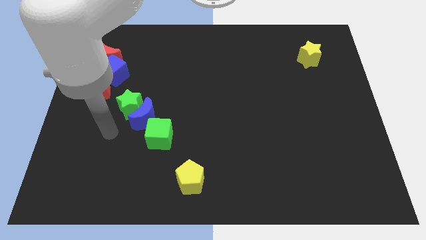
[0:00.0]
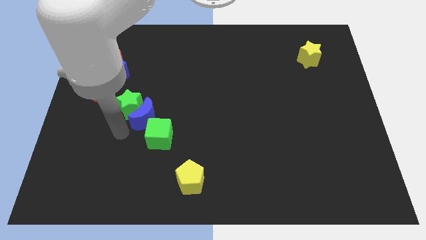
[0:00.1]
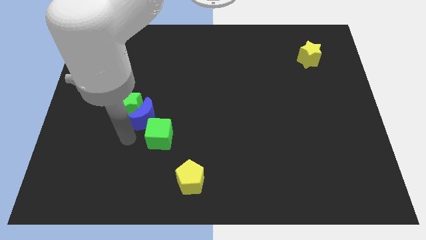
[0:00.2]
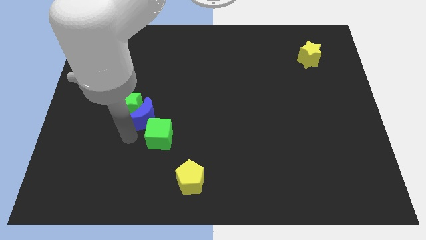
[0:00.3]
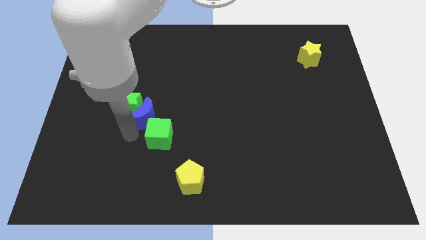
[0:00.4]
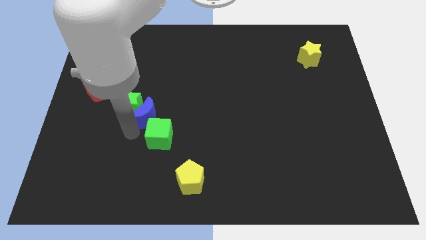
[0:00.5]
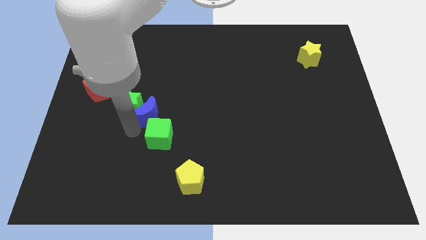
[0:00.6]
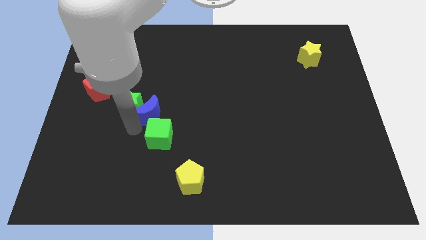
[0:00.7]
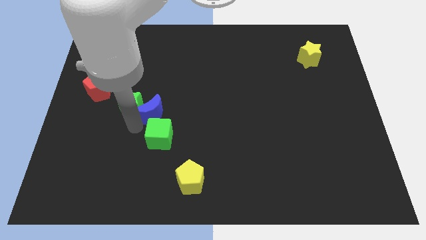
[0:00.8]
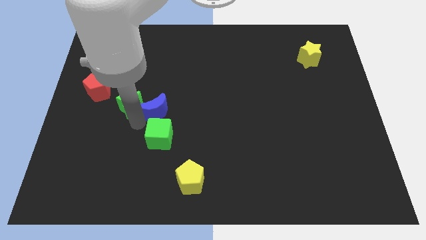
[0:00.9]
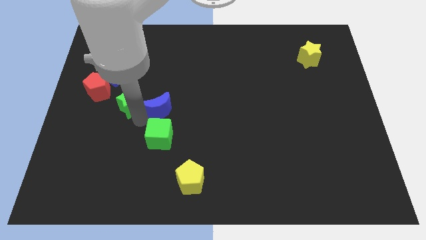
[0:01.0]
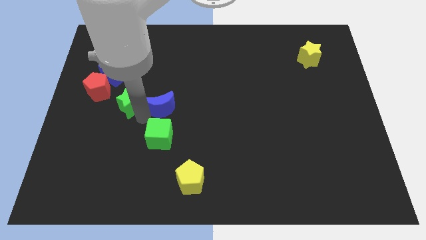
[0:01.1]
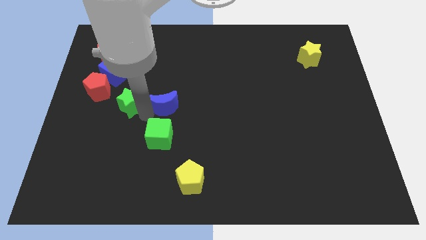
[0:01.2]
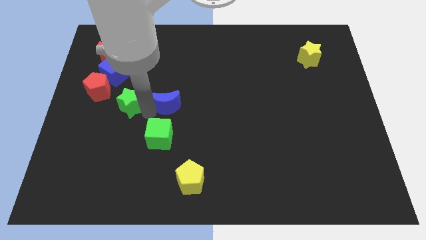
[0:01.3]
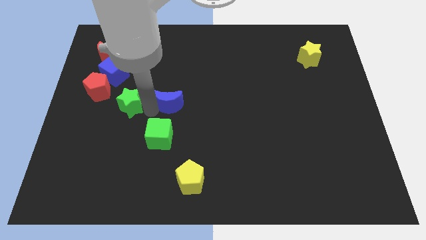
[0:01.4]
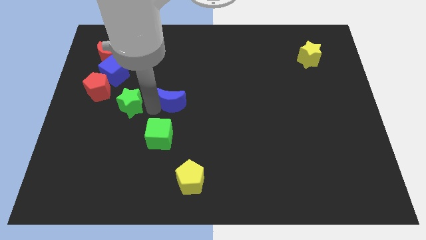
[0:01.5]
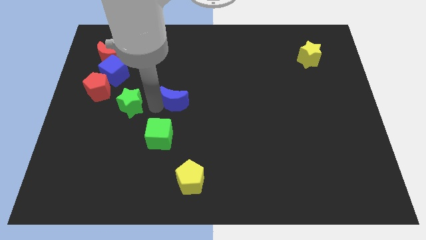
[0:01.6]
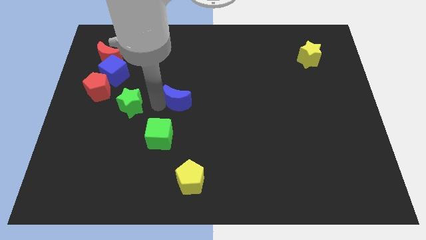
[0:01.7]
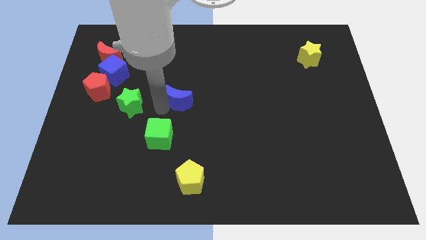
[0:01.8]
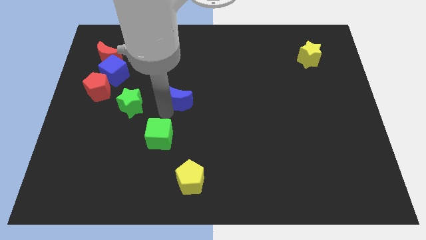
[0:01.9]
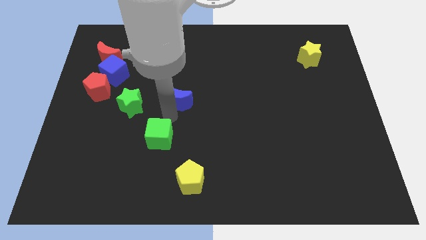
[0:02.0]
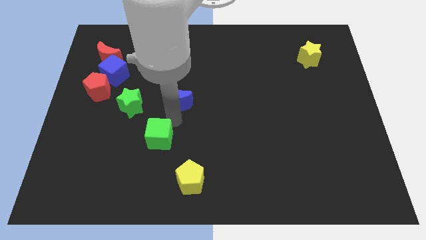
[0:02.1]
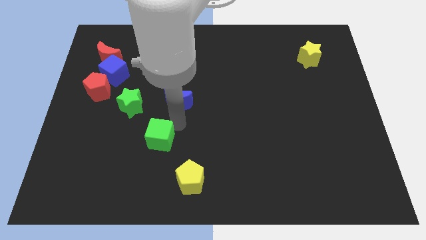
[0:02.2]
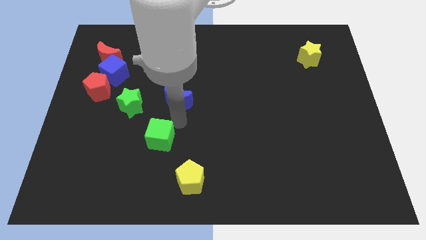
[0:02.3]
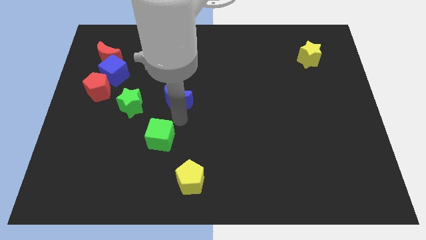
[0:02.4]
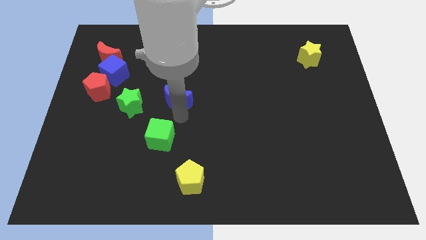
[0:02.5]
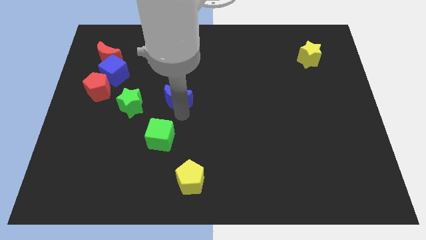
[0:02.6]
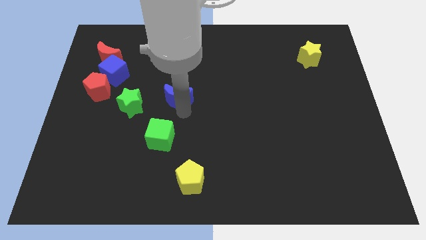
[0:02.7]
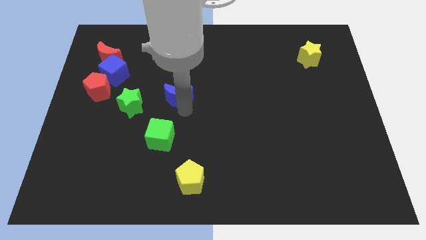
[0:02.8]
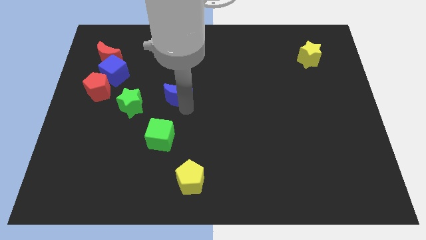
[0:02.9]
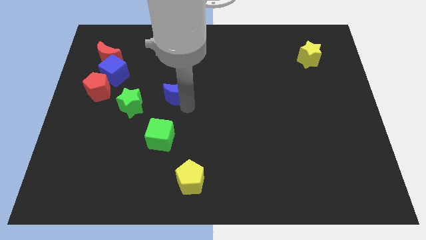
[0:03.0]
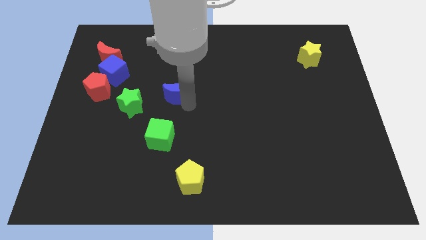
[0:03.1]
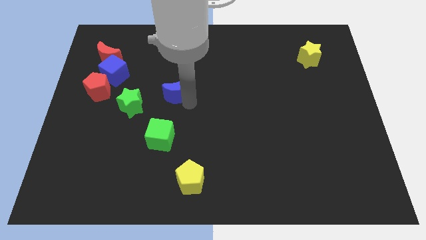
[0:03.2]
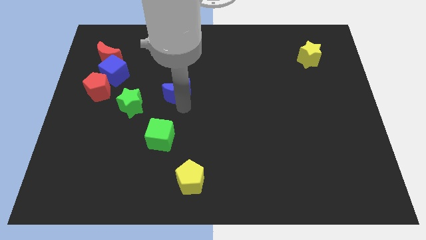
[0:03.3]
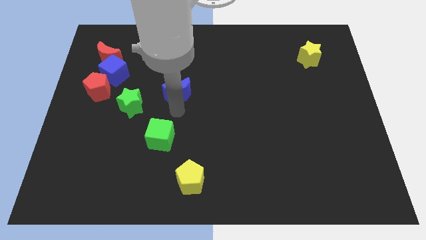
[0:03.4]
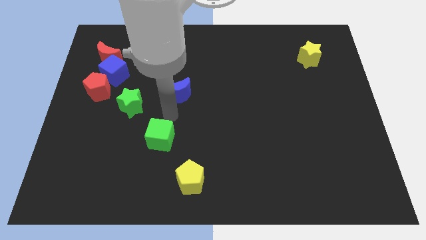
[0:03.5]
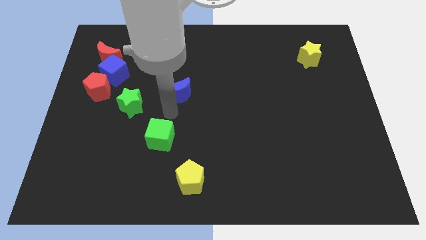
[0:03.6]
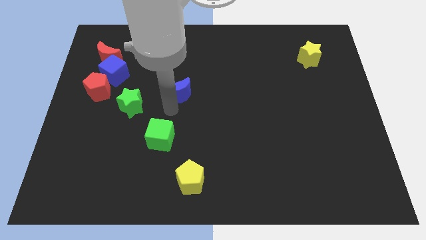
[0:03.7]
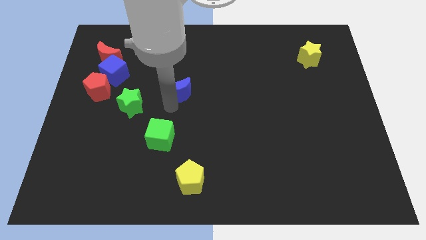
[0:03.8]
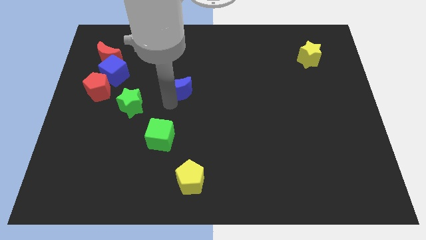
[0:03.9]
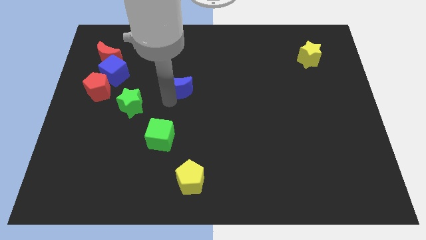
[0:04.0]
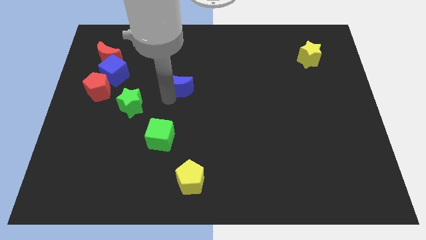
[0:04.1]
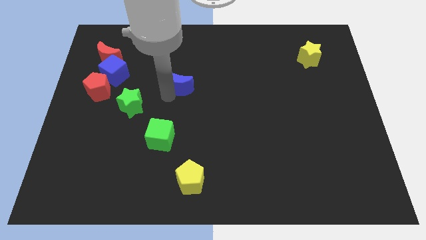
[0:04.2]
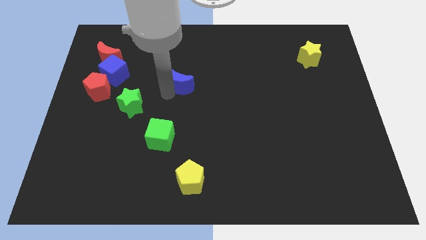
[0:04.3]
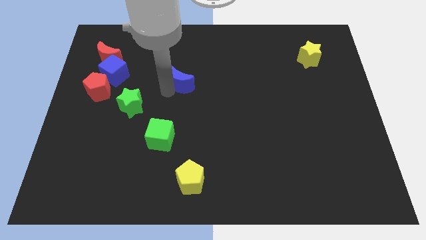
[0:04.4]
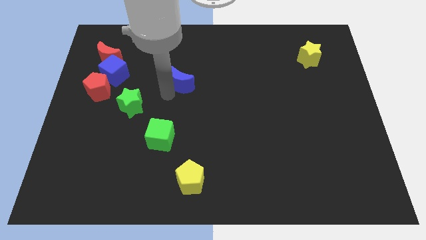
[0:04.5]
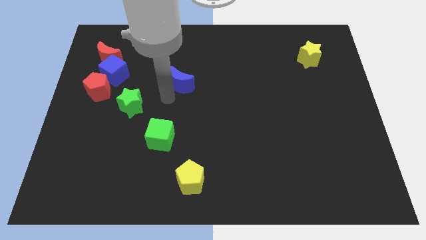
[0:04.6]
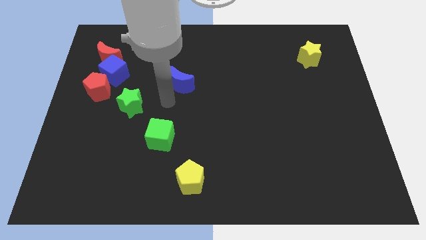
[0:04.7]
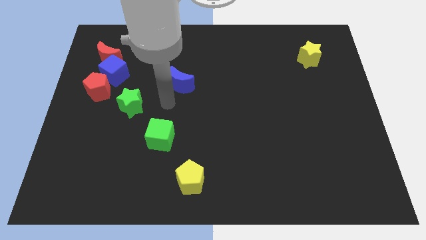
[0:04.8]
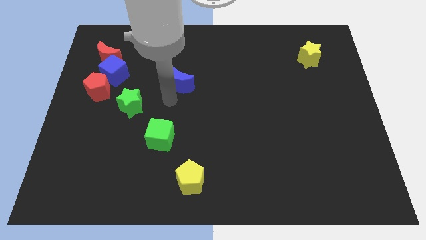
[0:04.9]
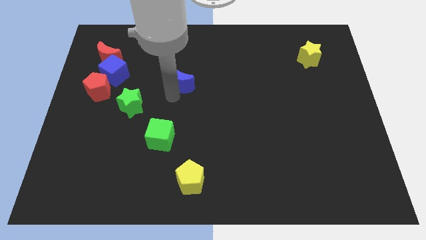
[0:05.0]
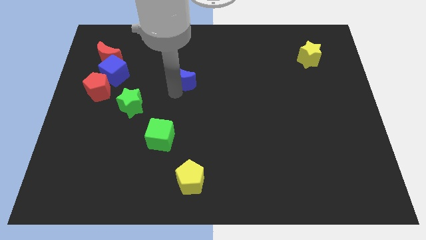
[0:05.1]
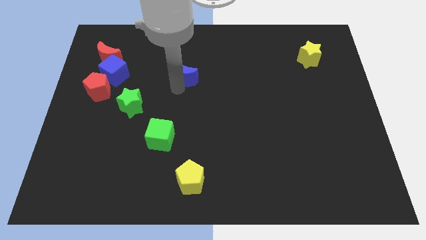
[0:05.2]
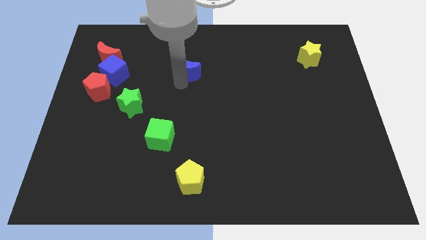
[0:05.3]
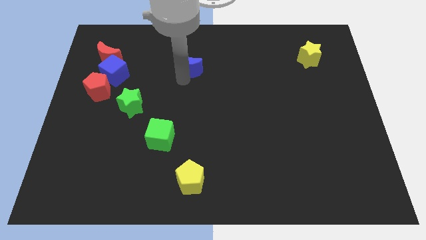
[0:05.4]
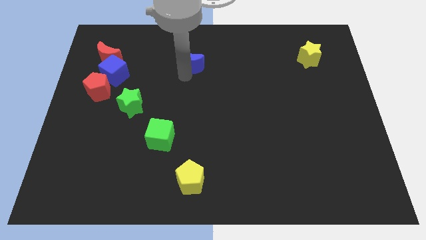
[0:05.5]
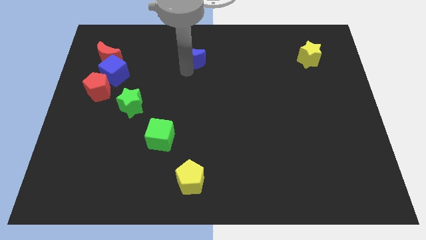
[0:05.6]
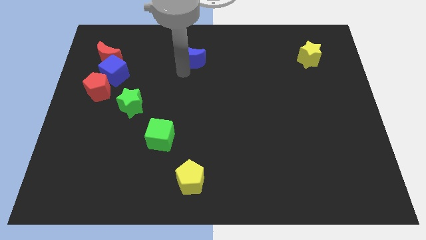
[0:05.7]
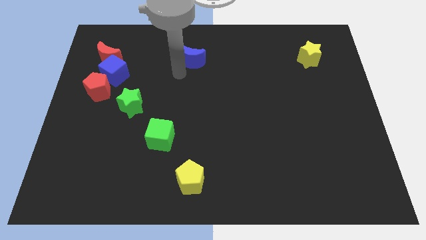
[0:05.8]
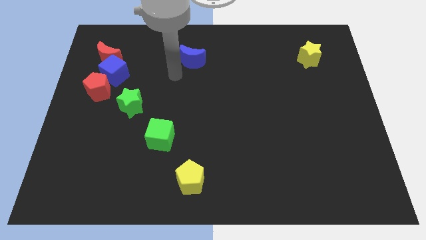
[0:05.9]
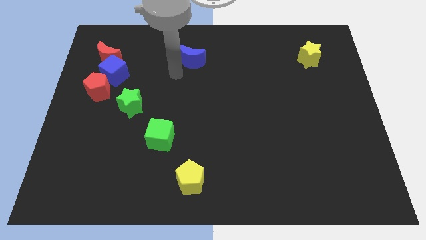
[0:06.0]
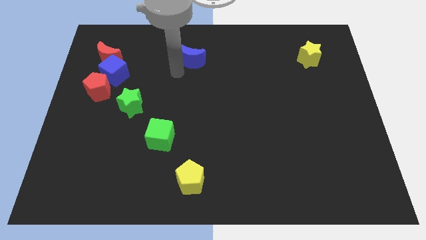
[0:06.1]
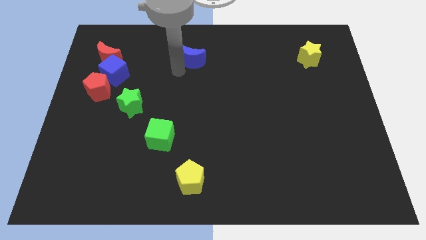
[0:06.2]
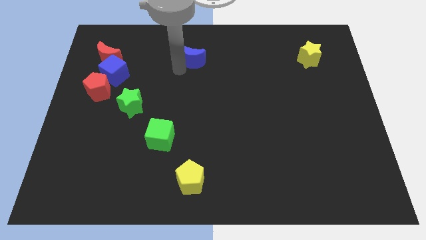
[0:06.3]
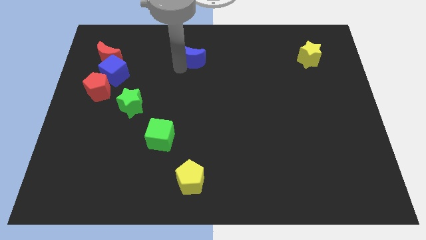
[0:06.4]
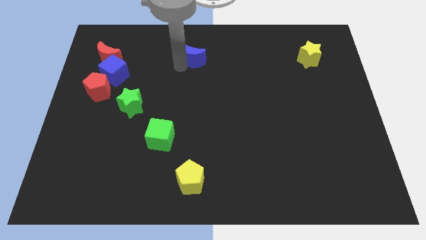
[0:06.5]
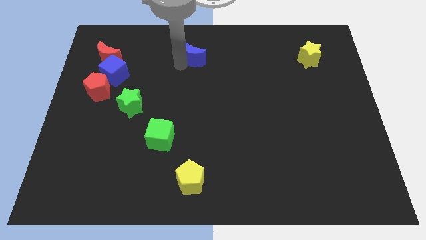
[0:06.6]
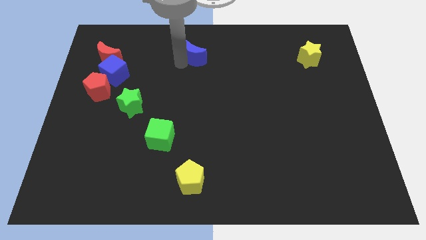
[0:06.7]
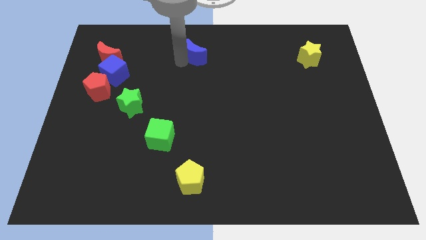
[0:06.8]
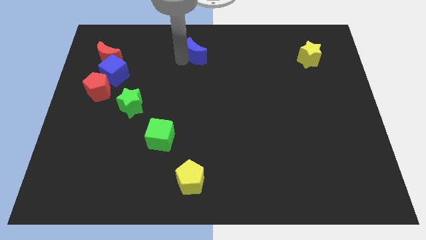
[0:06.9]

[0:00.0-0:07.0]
slide the blue moon to the towards your base
